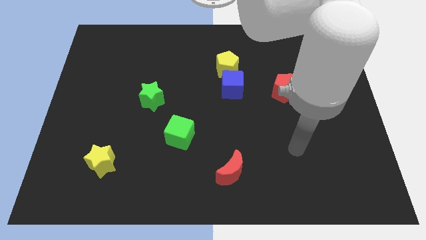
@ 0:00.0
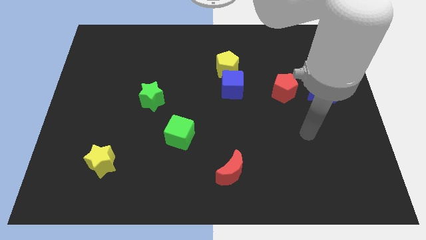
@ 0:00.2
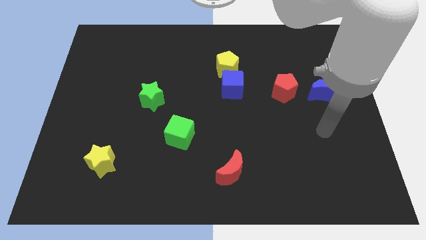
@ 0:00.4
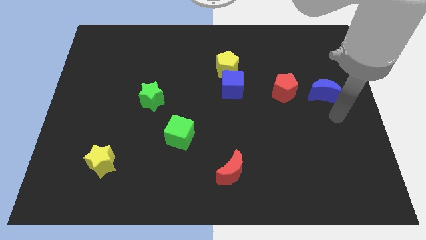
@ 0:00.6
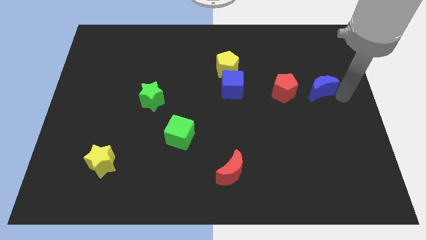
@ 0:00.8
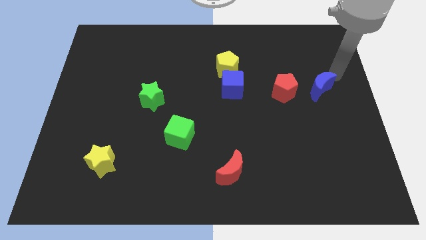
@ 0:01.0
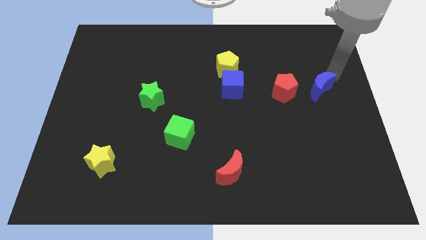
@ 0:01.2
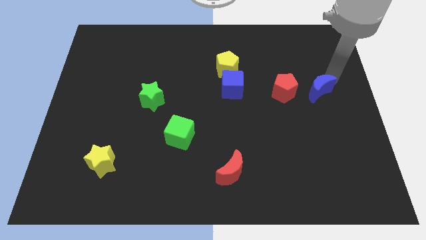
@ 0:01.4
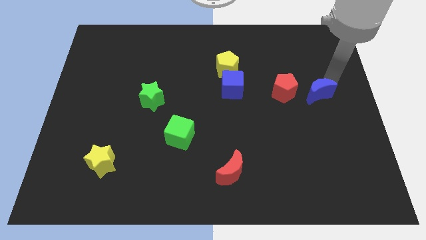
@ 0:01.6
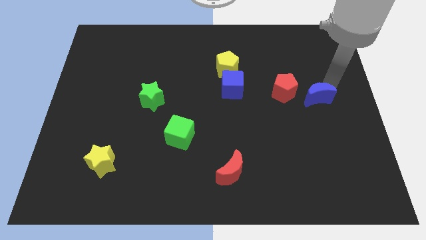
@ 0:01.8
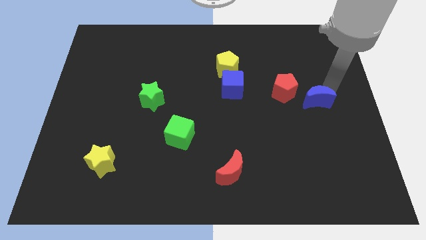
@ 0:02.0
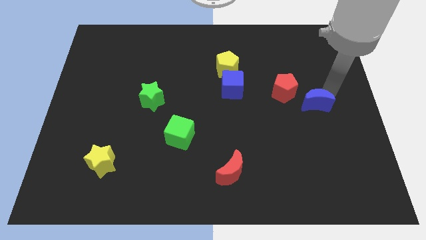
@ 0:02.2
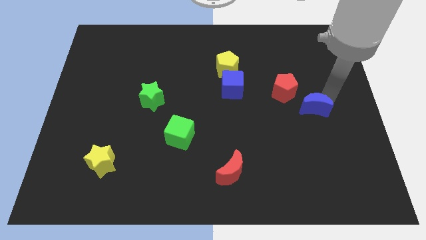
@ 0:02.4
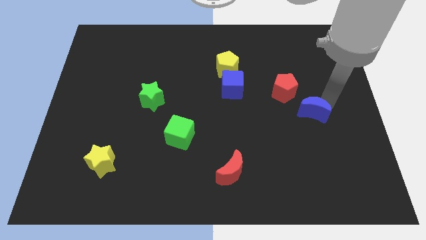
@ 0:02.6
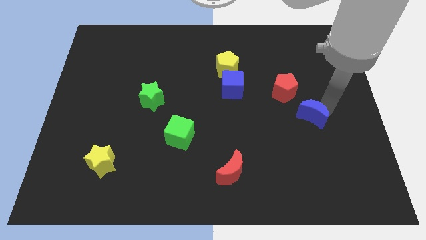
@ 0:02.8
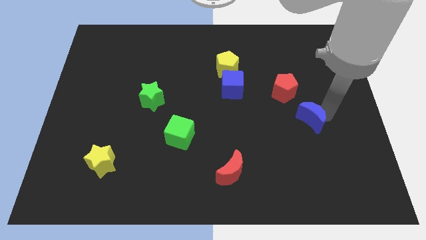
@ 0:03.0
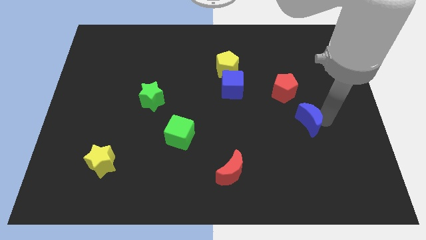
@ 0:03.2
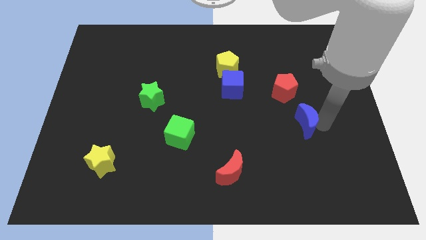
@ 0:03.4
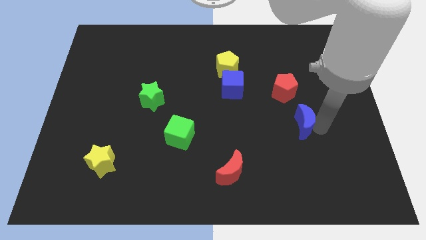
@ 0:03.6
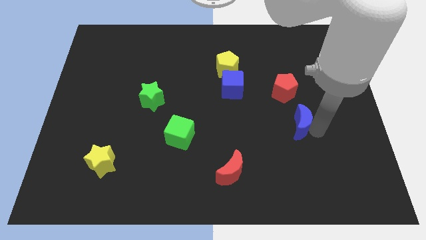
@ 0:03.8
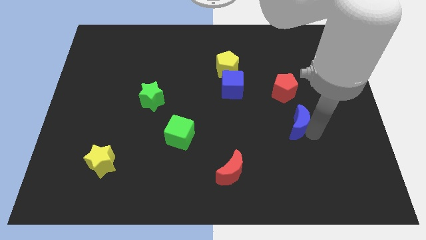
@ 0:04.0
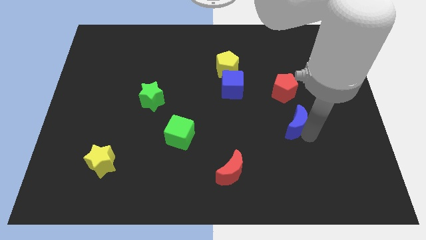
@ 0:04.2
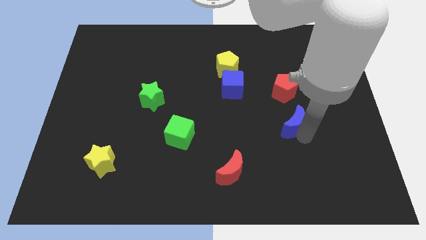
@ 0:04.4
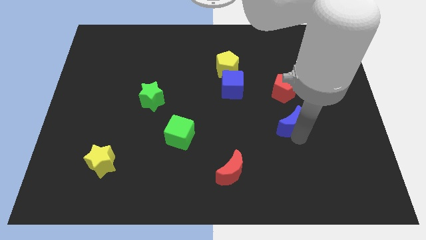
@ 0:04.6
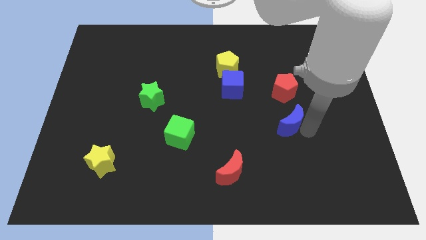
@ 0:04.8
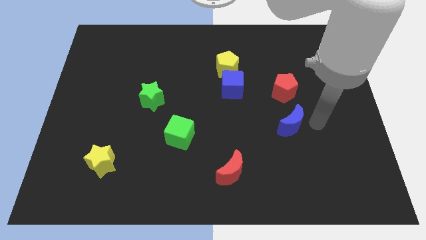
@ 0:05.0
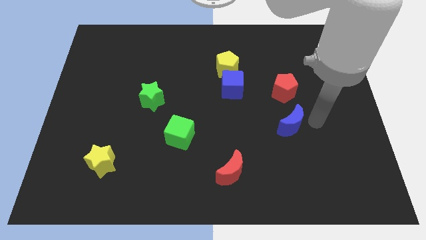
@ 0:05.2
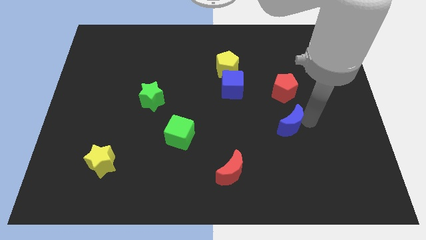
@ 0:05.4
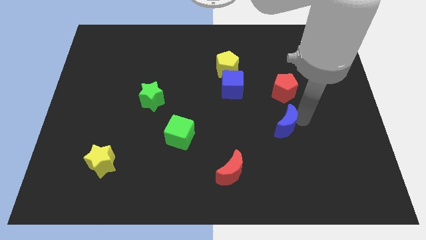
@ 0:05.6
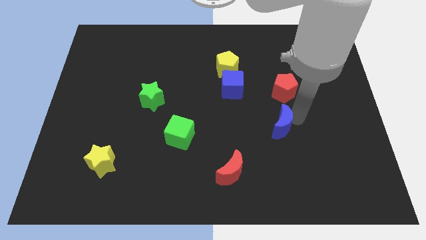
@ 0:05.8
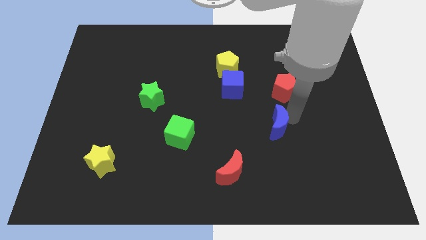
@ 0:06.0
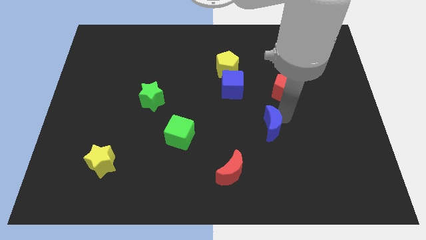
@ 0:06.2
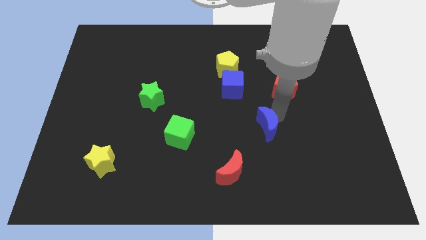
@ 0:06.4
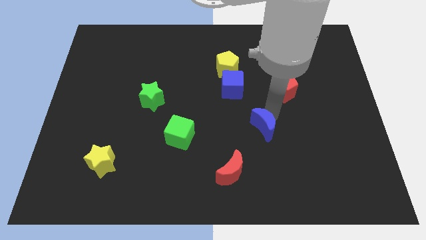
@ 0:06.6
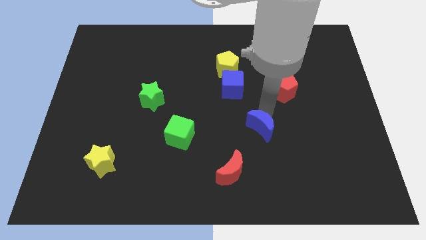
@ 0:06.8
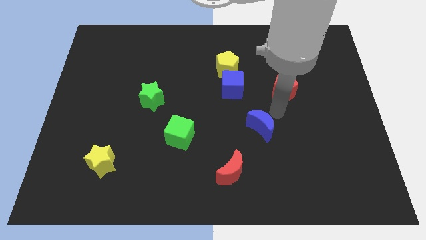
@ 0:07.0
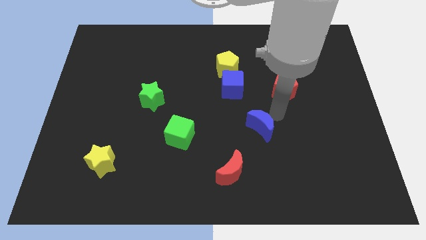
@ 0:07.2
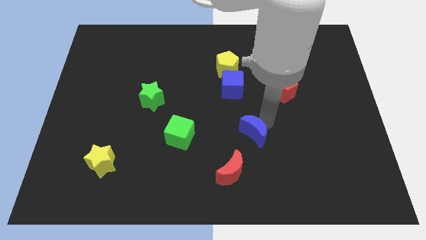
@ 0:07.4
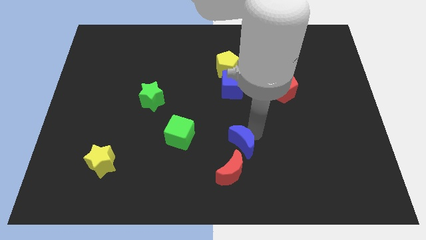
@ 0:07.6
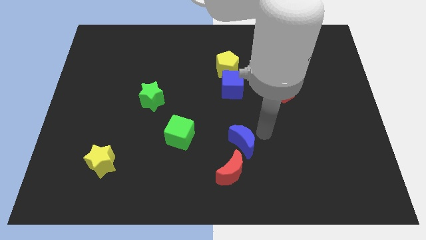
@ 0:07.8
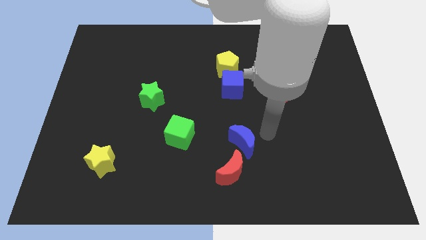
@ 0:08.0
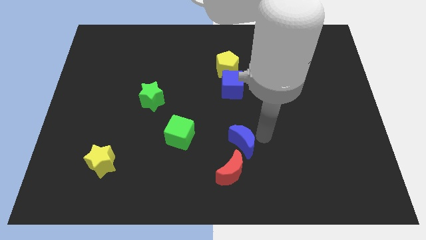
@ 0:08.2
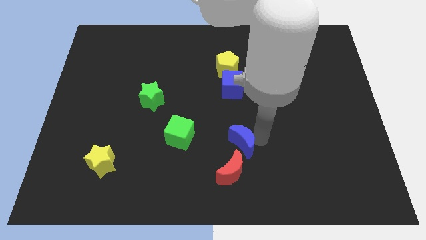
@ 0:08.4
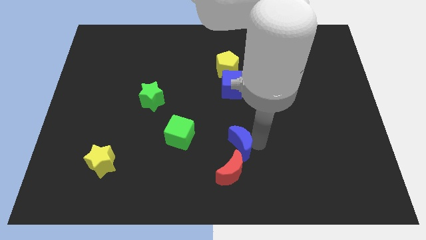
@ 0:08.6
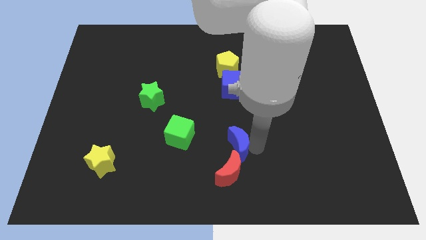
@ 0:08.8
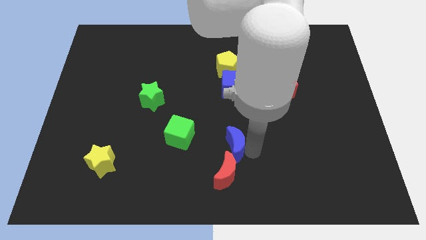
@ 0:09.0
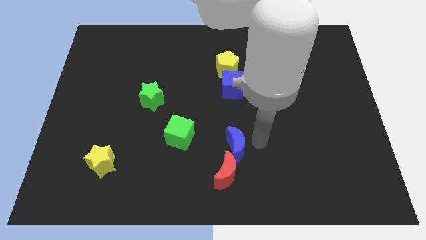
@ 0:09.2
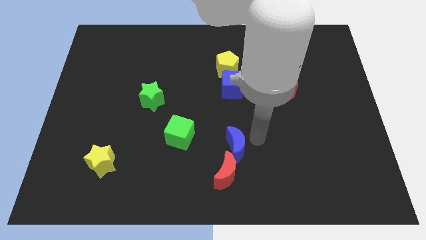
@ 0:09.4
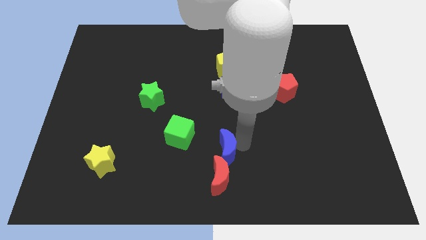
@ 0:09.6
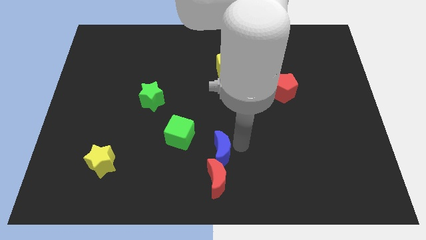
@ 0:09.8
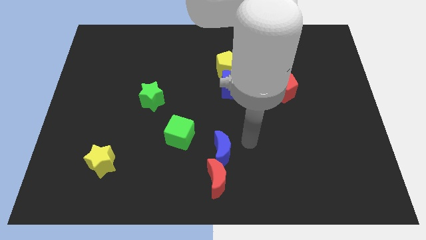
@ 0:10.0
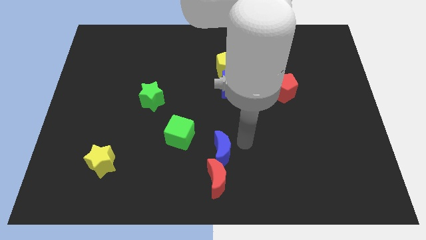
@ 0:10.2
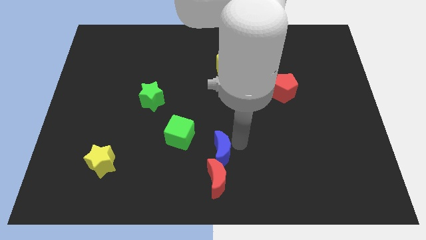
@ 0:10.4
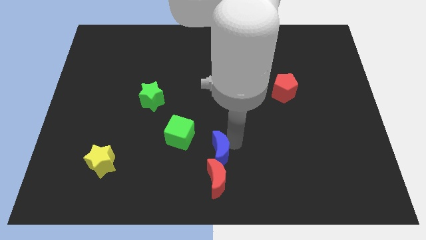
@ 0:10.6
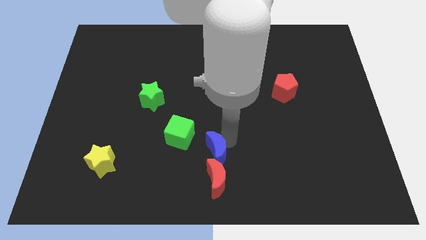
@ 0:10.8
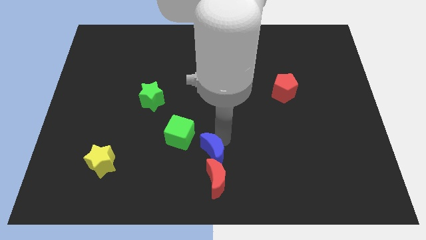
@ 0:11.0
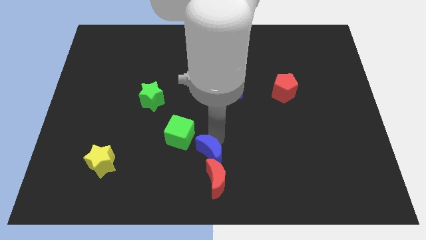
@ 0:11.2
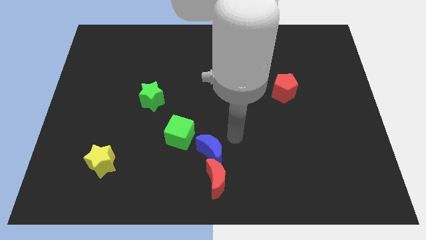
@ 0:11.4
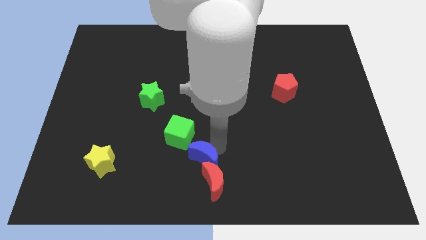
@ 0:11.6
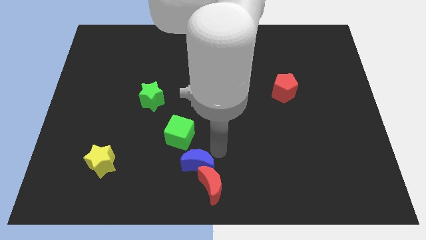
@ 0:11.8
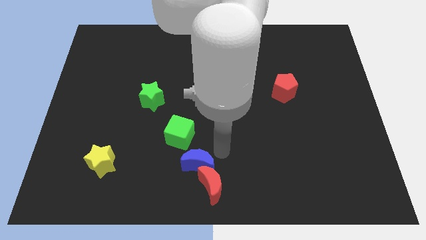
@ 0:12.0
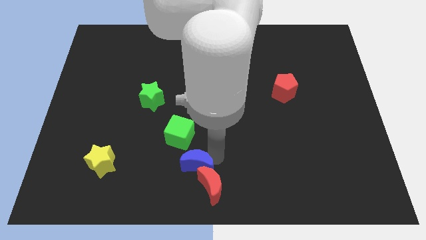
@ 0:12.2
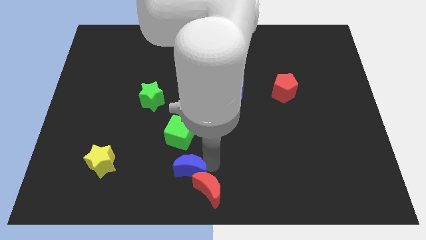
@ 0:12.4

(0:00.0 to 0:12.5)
slide the blue moon to the left side of the red moon

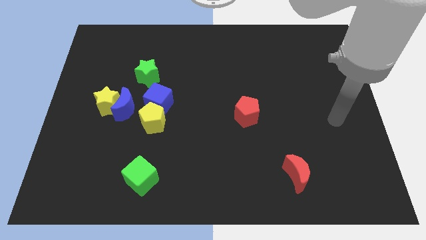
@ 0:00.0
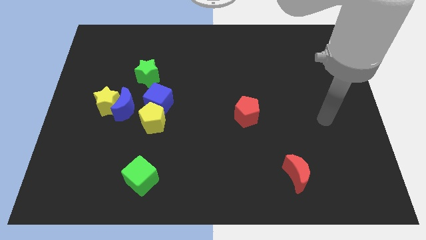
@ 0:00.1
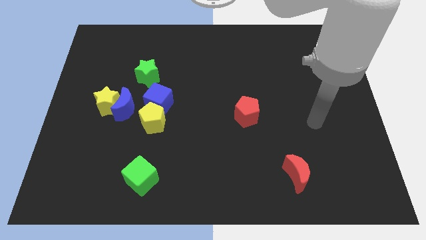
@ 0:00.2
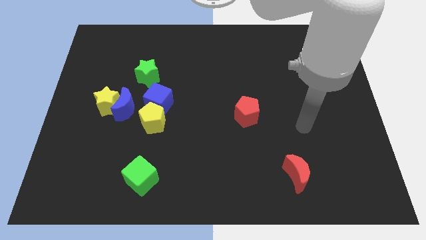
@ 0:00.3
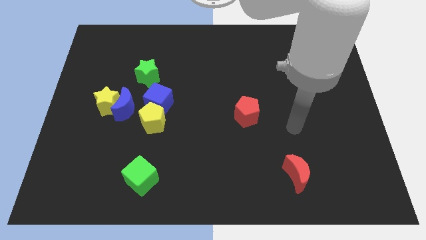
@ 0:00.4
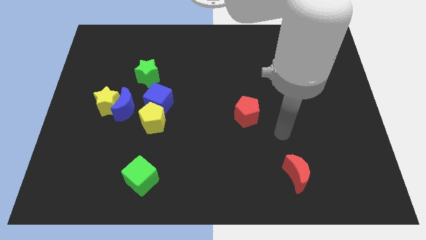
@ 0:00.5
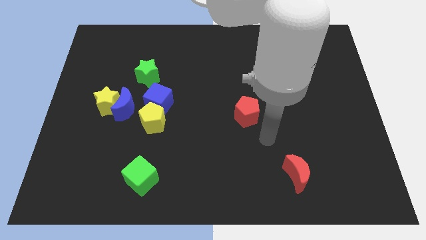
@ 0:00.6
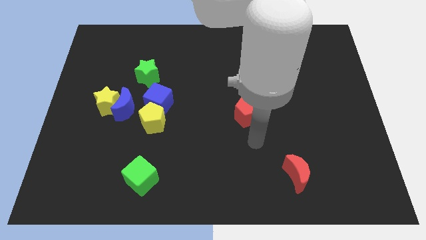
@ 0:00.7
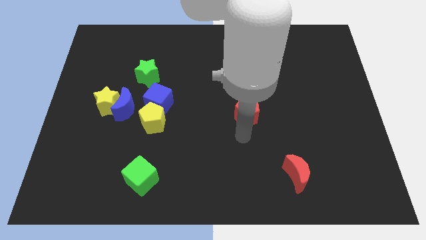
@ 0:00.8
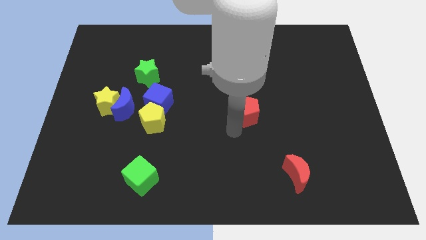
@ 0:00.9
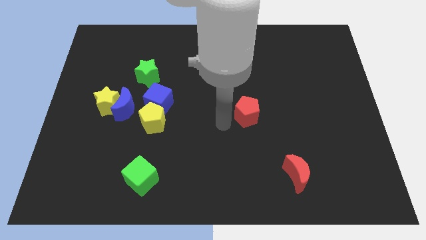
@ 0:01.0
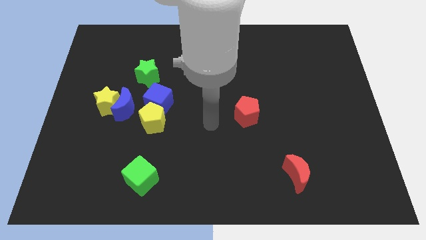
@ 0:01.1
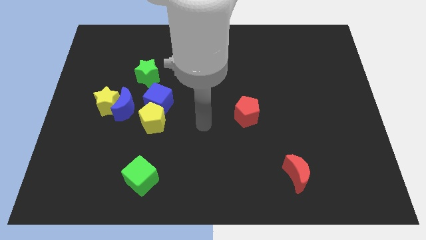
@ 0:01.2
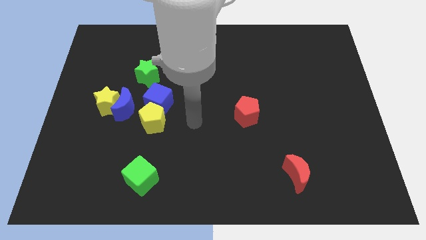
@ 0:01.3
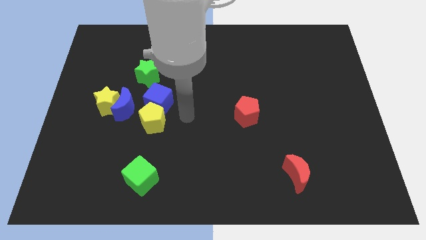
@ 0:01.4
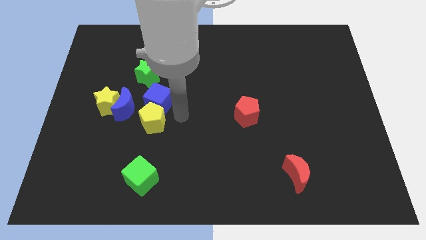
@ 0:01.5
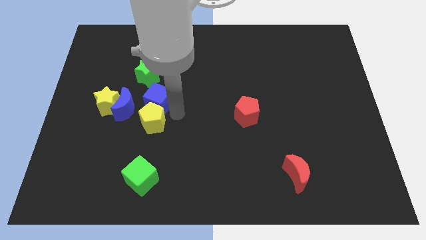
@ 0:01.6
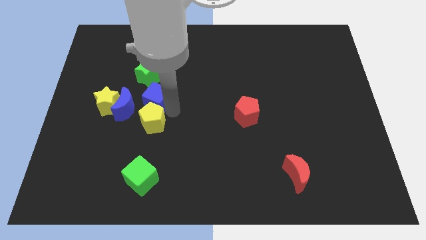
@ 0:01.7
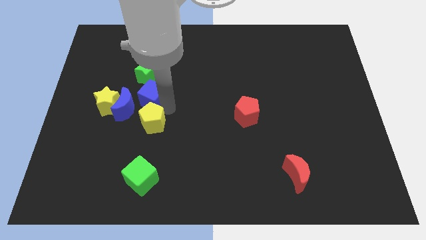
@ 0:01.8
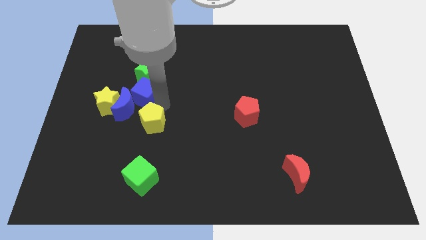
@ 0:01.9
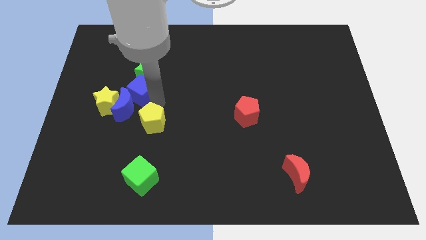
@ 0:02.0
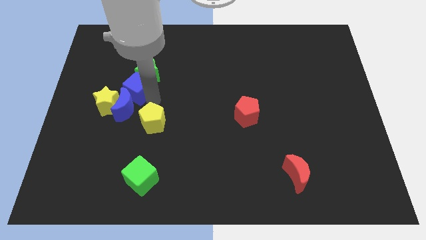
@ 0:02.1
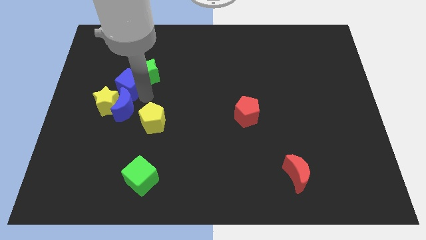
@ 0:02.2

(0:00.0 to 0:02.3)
put the blue cube to the top side of the yellow star
